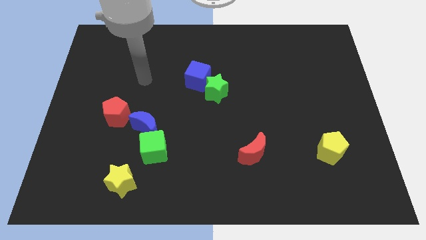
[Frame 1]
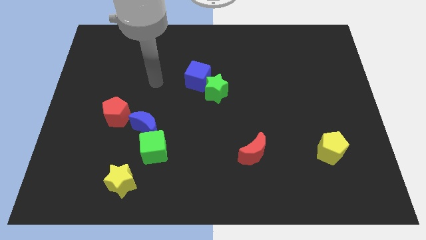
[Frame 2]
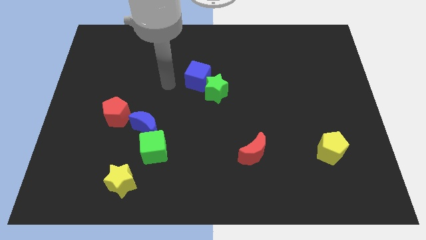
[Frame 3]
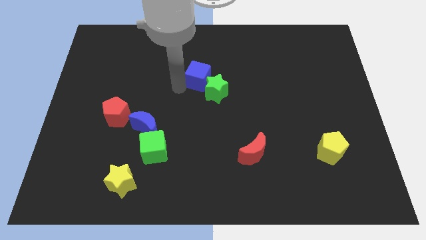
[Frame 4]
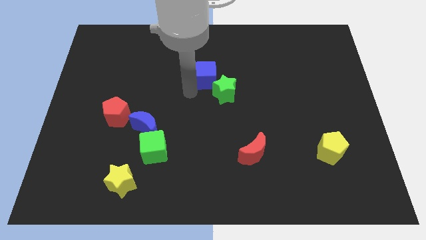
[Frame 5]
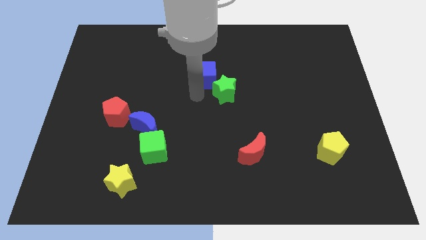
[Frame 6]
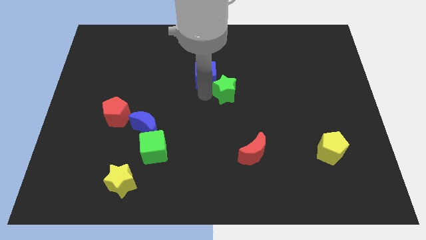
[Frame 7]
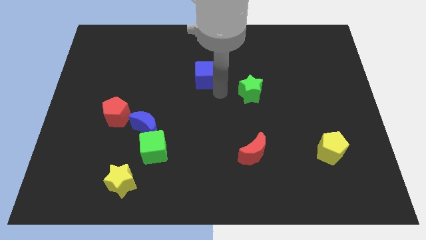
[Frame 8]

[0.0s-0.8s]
separate the blue cube from the green star

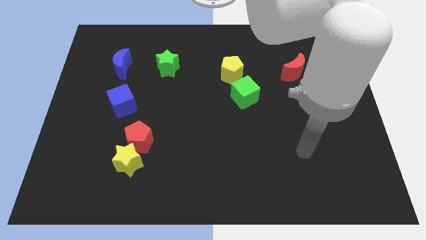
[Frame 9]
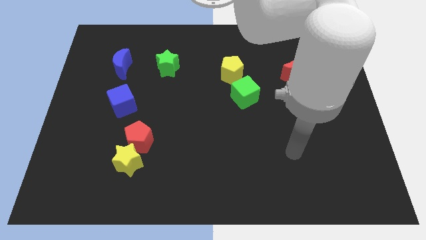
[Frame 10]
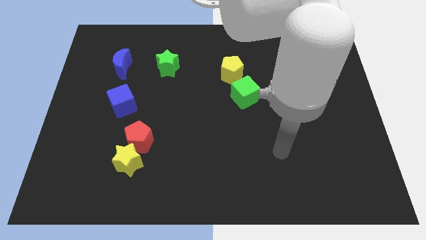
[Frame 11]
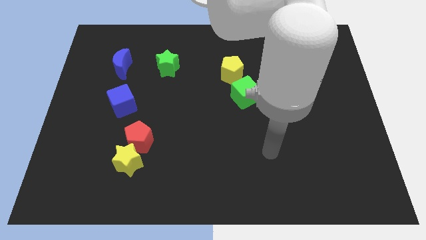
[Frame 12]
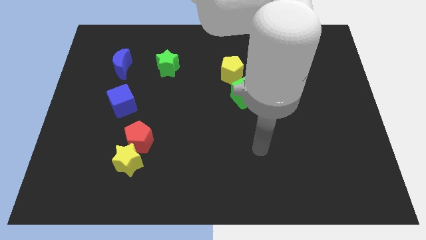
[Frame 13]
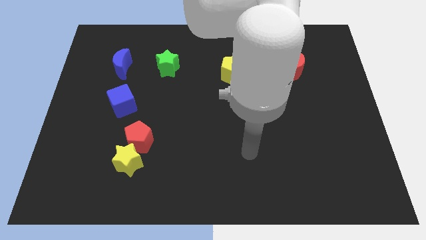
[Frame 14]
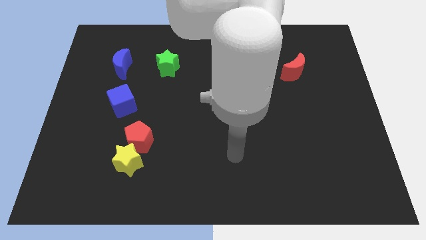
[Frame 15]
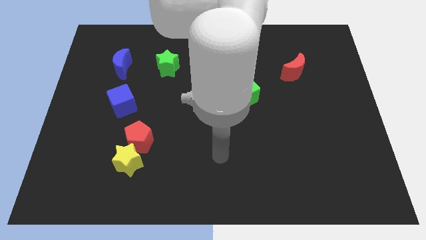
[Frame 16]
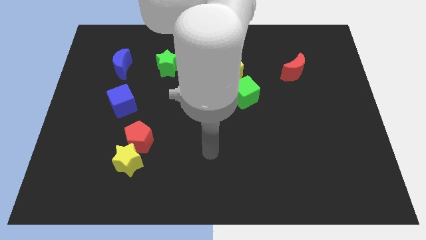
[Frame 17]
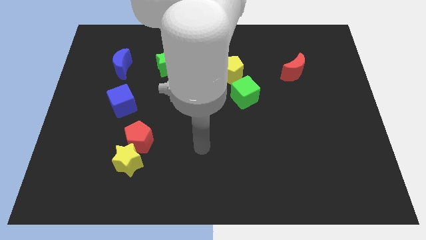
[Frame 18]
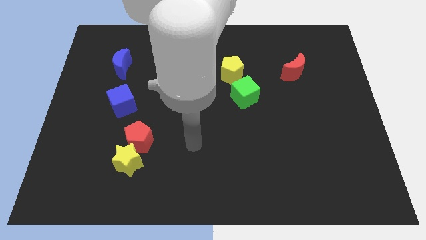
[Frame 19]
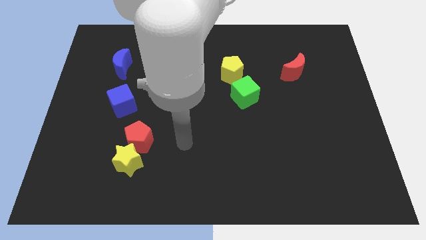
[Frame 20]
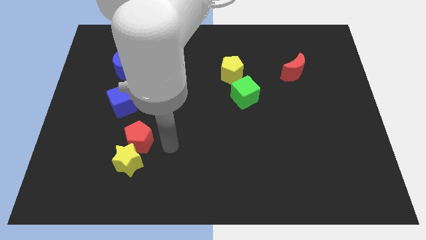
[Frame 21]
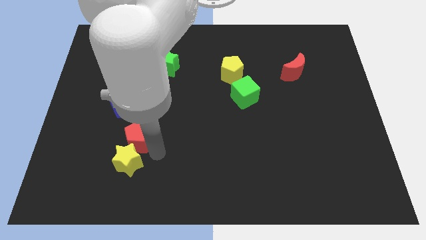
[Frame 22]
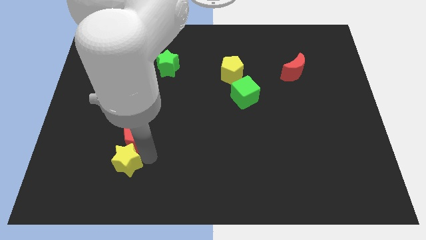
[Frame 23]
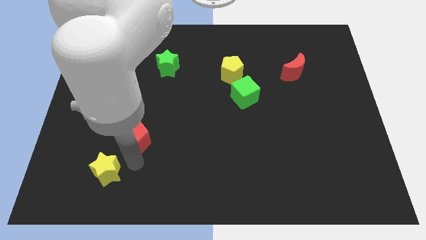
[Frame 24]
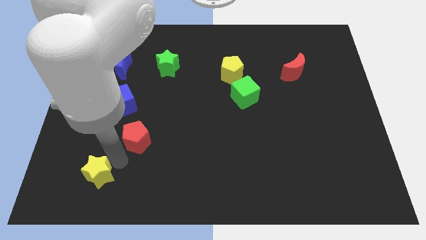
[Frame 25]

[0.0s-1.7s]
separate the red pentagon from the yellow star

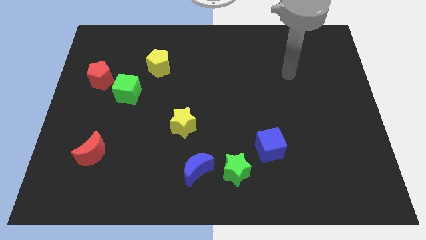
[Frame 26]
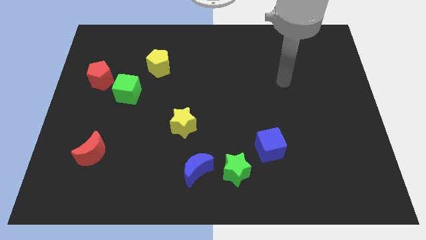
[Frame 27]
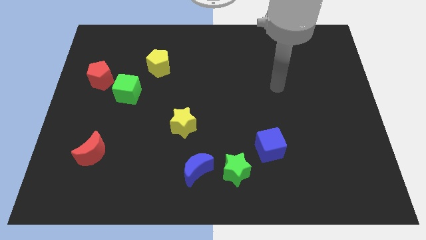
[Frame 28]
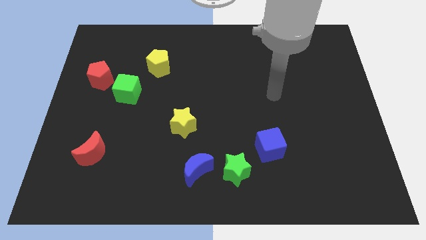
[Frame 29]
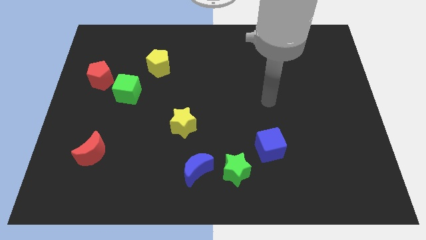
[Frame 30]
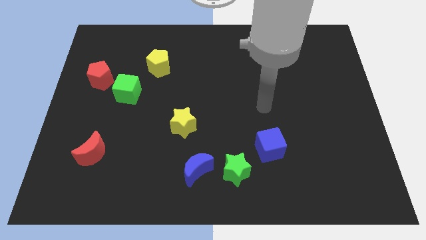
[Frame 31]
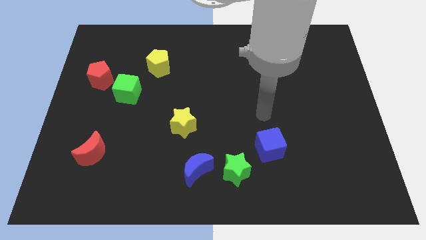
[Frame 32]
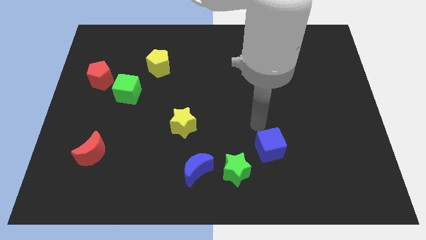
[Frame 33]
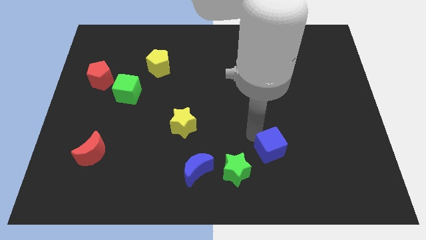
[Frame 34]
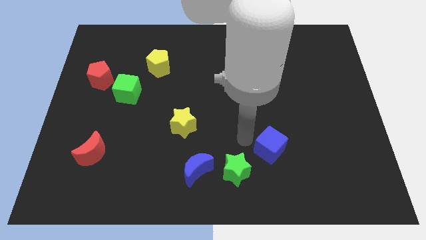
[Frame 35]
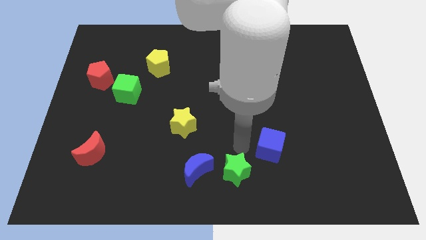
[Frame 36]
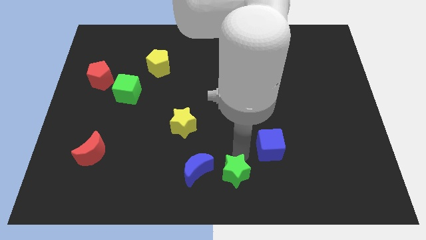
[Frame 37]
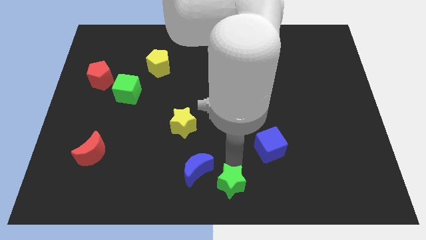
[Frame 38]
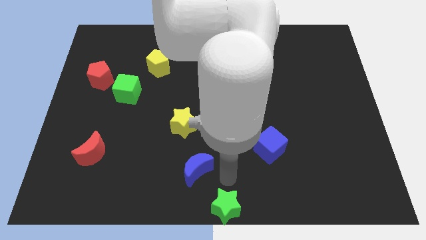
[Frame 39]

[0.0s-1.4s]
pull the blue moon apart from the green star

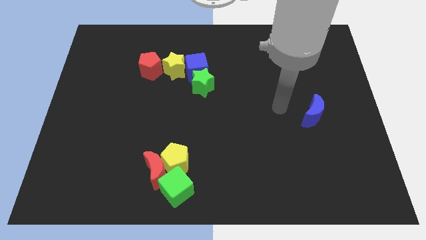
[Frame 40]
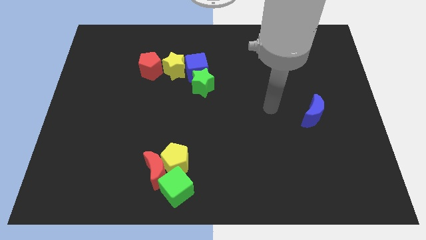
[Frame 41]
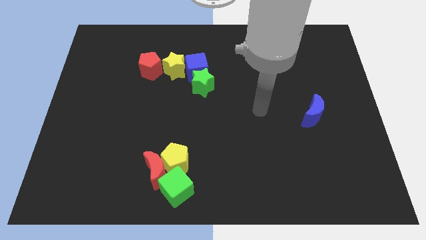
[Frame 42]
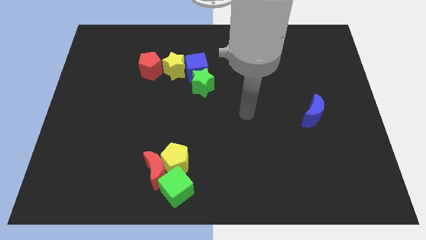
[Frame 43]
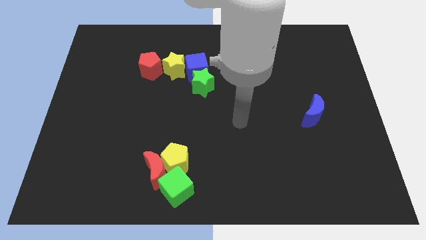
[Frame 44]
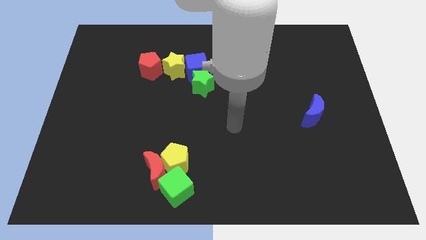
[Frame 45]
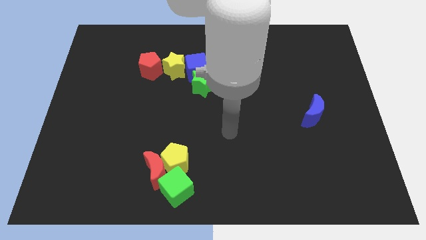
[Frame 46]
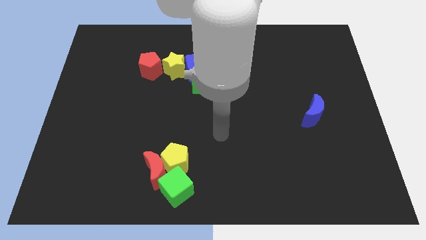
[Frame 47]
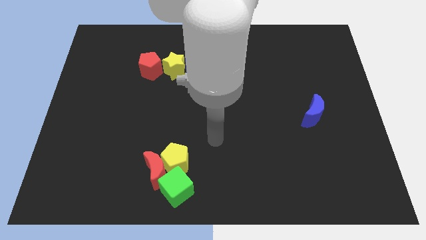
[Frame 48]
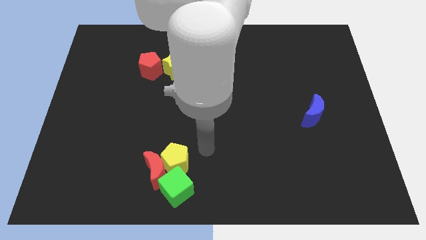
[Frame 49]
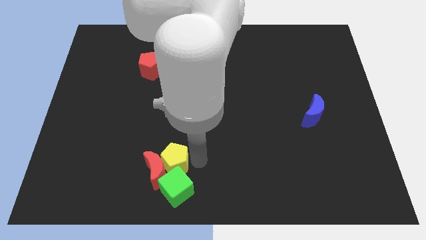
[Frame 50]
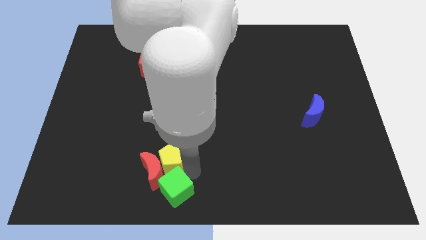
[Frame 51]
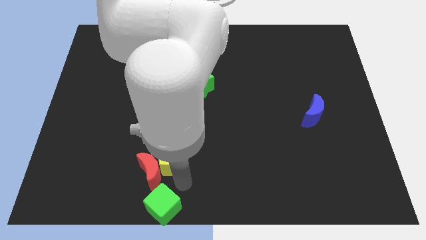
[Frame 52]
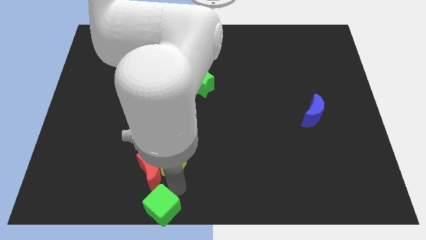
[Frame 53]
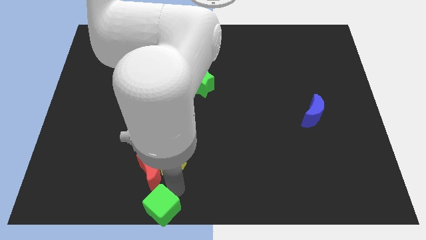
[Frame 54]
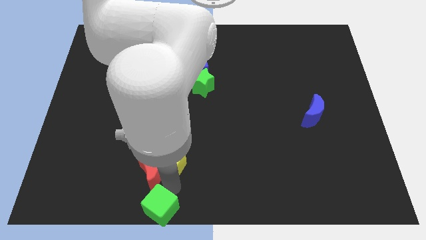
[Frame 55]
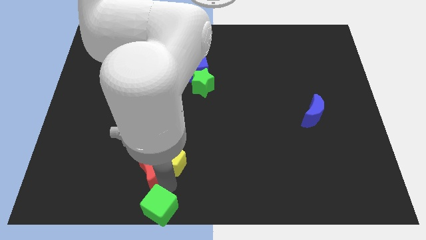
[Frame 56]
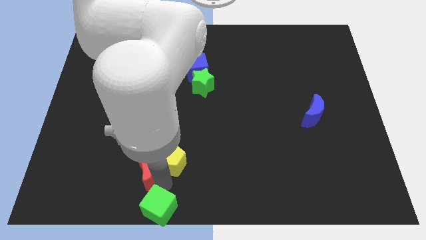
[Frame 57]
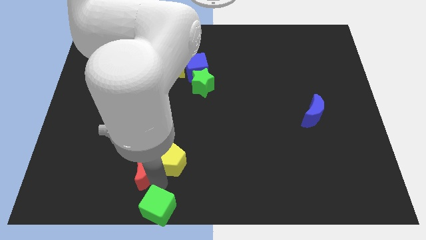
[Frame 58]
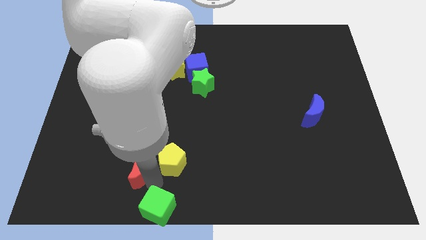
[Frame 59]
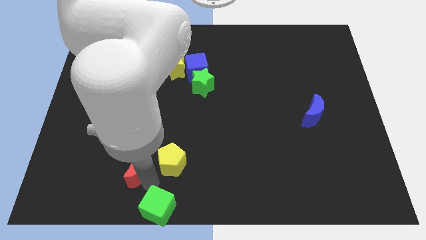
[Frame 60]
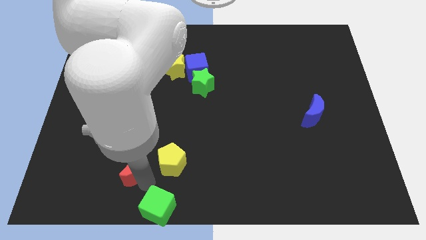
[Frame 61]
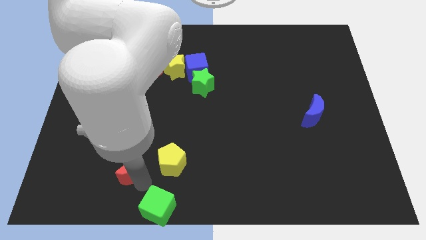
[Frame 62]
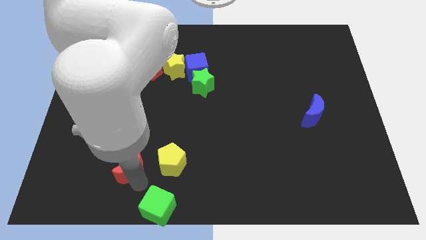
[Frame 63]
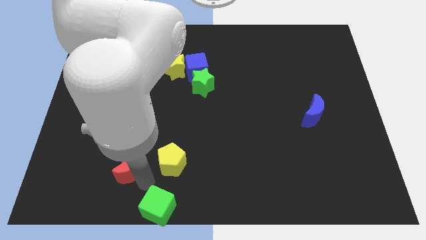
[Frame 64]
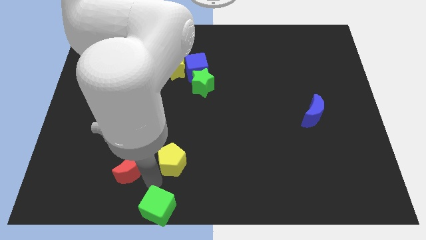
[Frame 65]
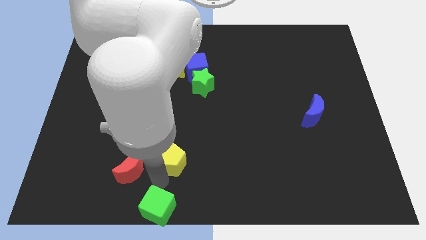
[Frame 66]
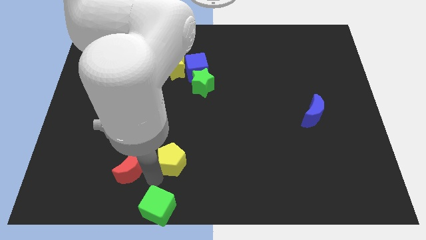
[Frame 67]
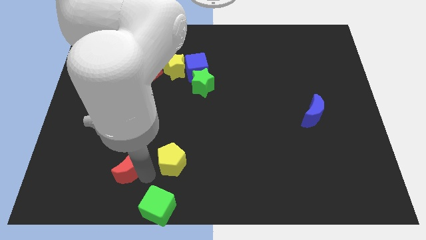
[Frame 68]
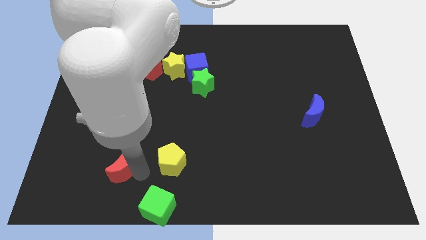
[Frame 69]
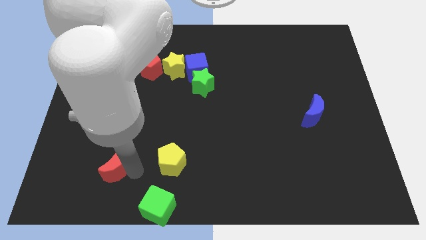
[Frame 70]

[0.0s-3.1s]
move the red moon away from the yellow pentagon and green cube

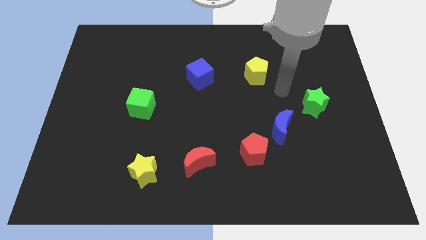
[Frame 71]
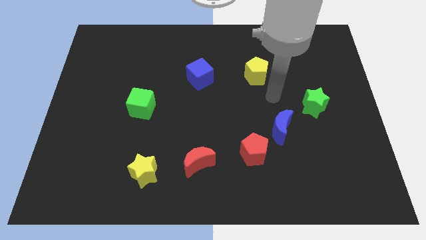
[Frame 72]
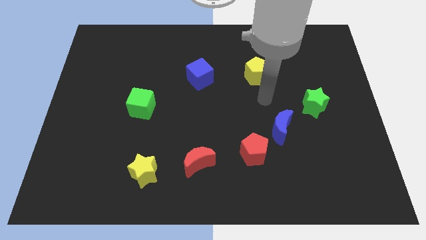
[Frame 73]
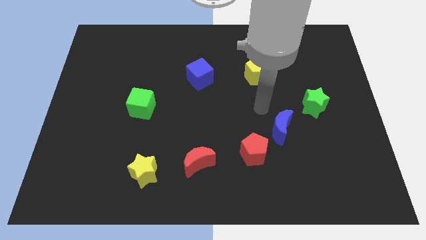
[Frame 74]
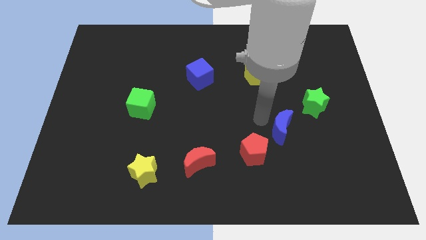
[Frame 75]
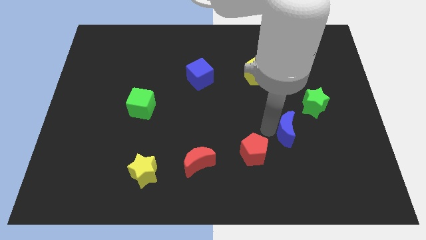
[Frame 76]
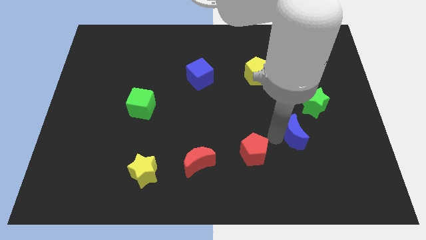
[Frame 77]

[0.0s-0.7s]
move the red pentagon away from the blue moon

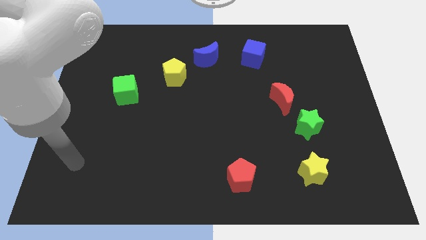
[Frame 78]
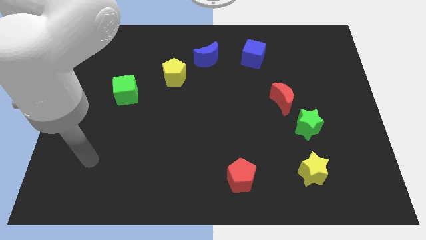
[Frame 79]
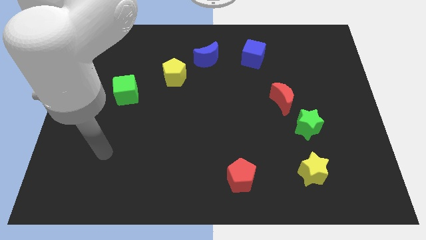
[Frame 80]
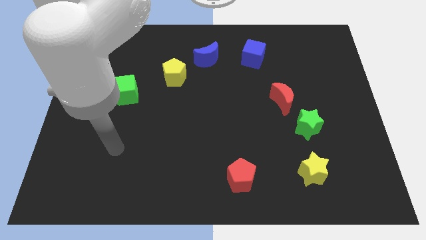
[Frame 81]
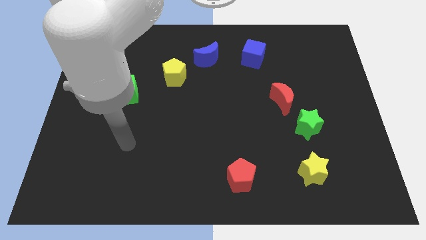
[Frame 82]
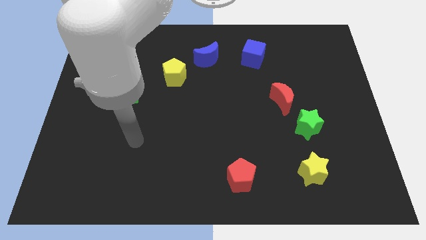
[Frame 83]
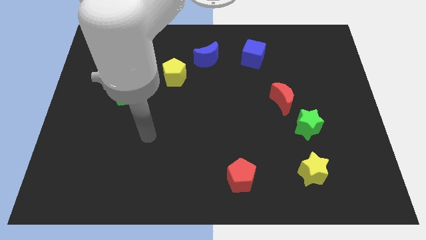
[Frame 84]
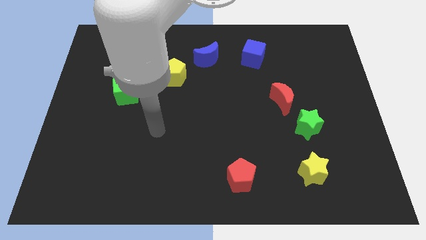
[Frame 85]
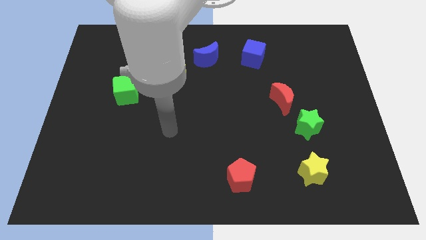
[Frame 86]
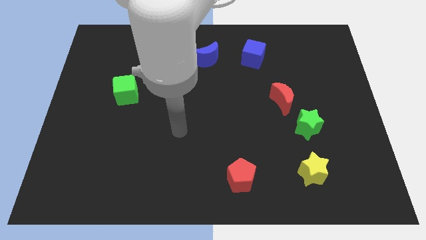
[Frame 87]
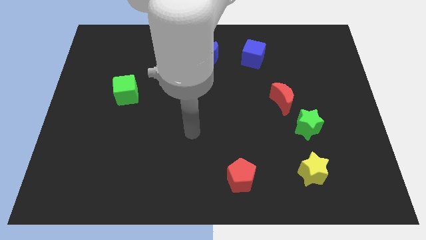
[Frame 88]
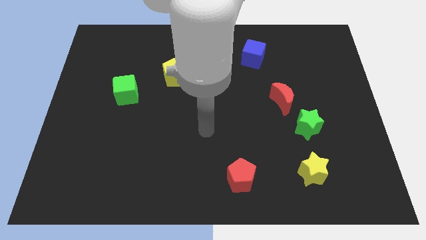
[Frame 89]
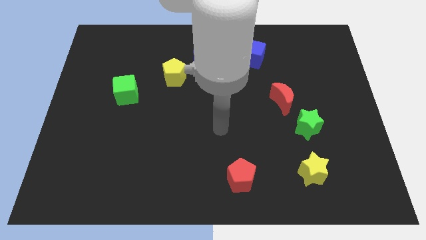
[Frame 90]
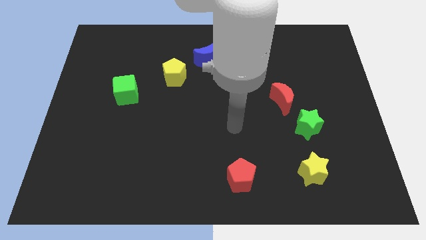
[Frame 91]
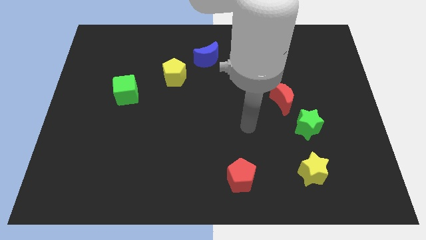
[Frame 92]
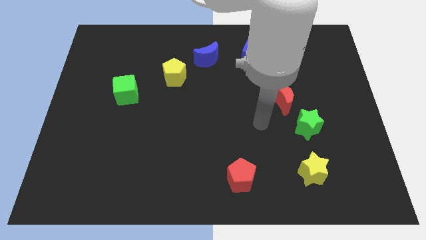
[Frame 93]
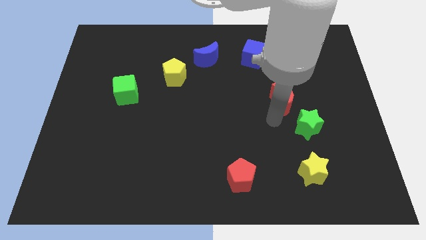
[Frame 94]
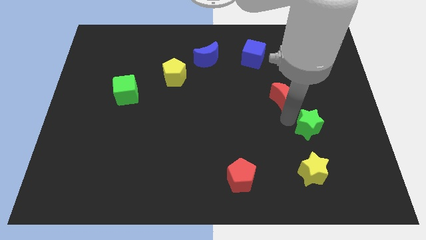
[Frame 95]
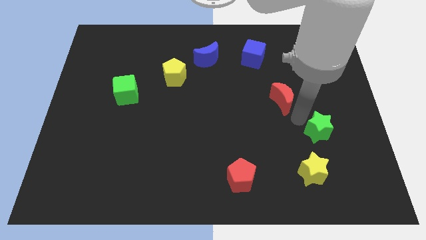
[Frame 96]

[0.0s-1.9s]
separate the red moon from the green star
